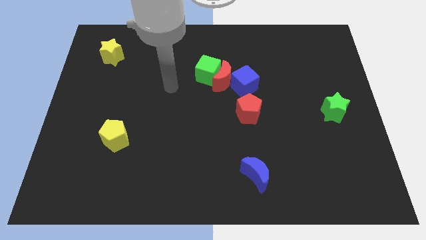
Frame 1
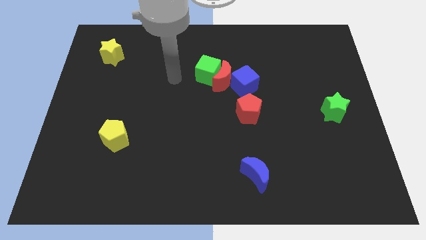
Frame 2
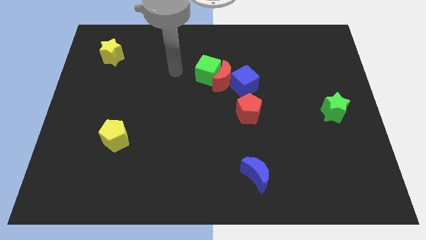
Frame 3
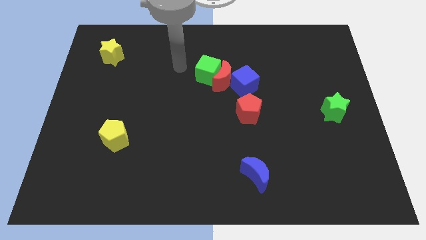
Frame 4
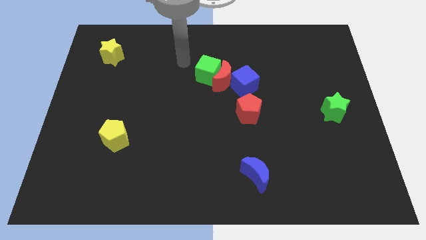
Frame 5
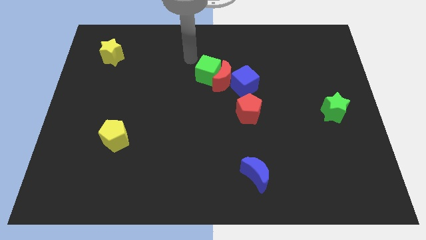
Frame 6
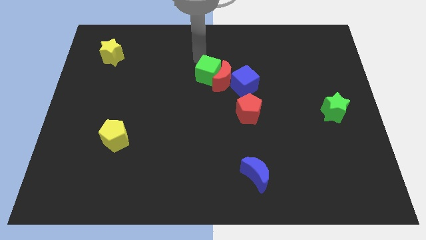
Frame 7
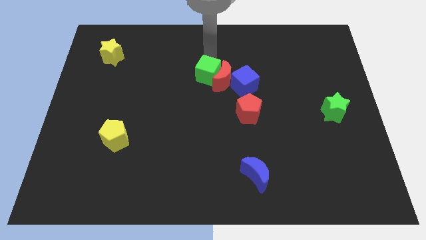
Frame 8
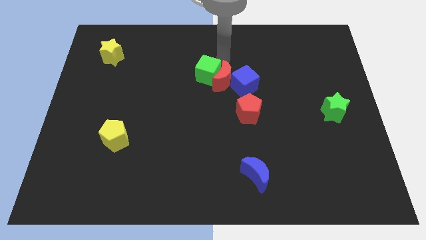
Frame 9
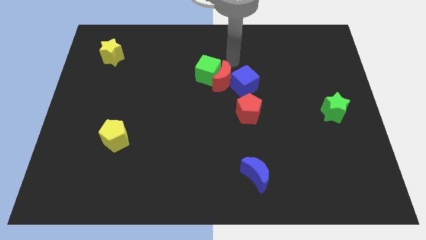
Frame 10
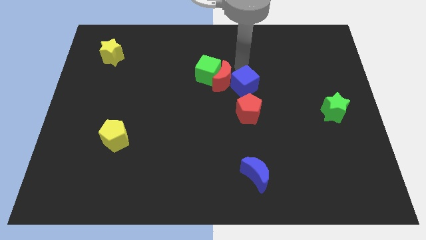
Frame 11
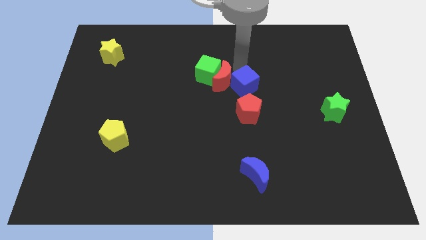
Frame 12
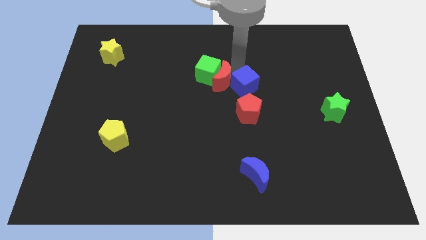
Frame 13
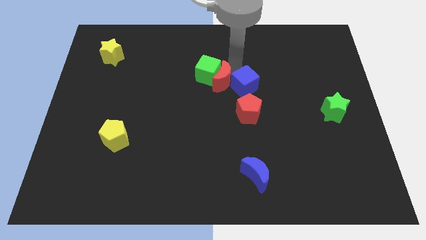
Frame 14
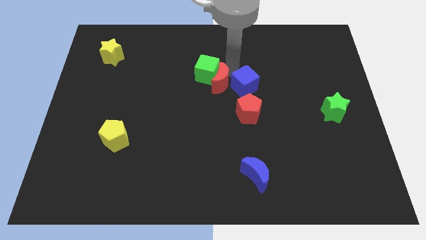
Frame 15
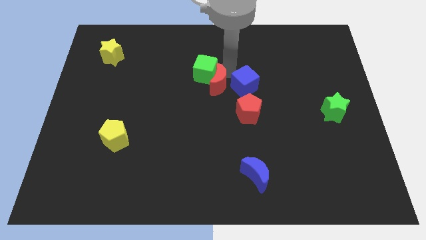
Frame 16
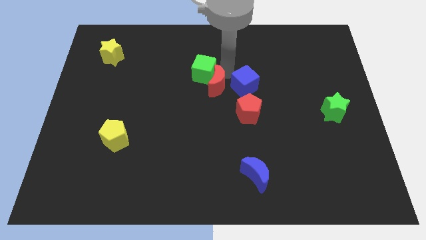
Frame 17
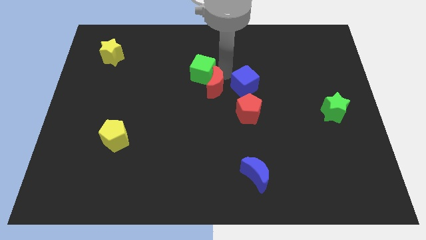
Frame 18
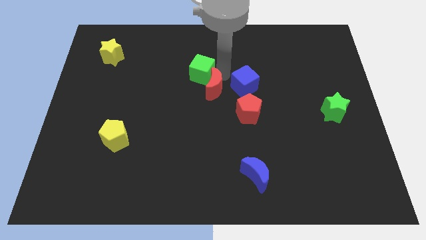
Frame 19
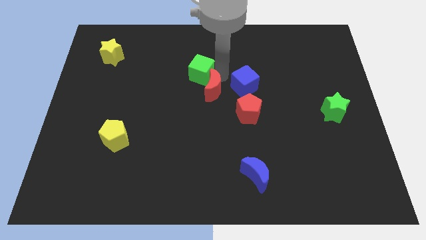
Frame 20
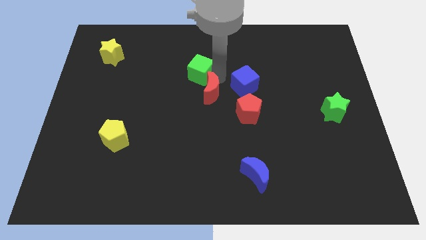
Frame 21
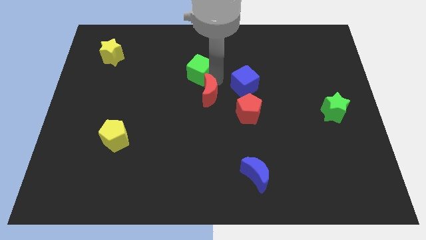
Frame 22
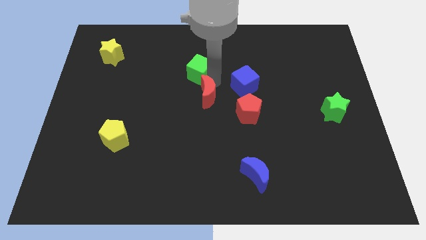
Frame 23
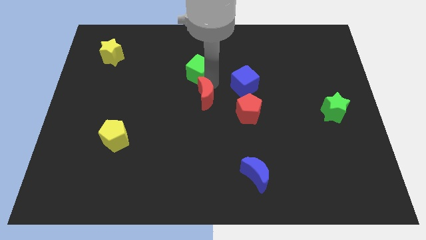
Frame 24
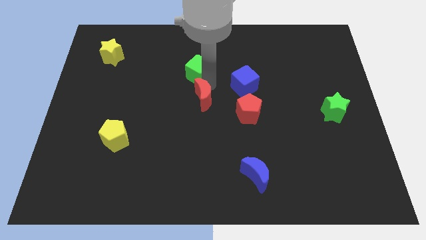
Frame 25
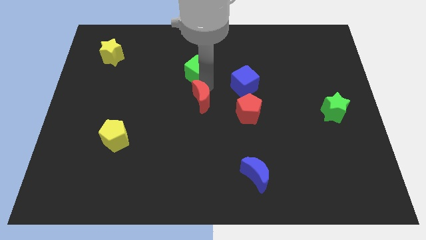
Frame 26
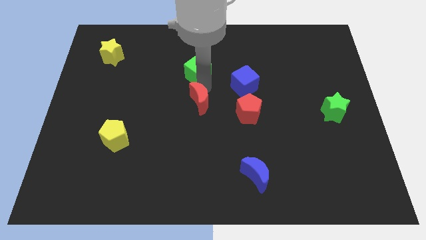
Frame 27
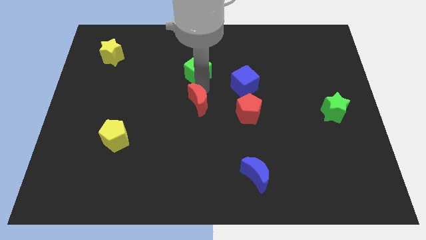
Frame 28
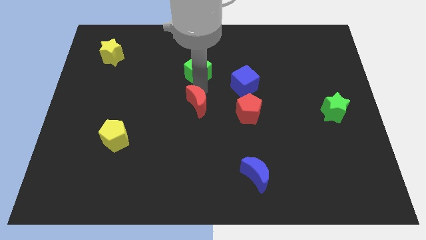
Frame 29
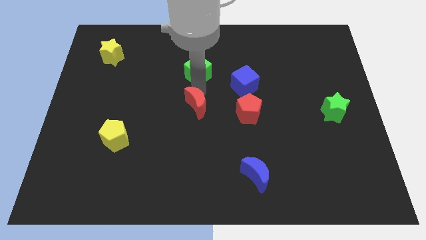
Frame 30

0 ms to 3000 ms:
pull the red moon apart from the green cube and blue cube

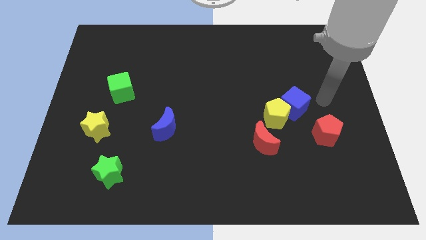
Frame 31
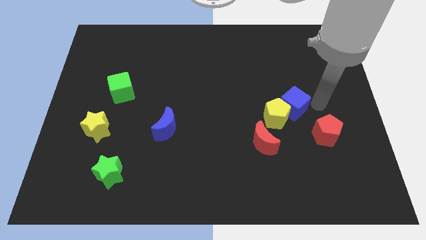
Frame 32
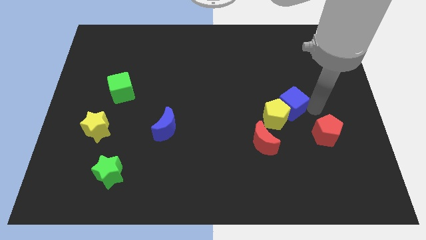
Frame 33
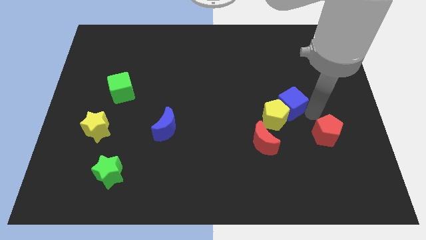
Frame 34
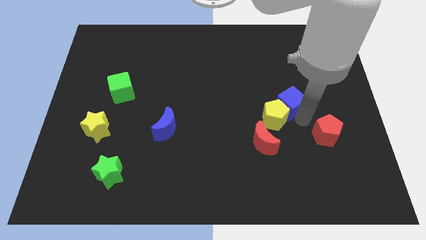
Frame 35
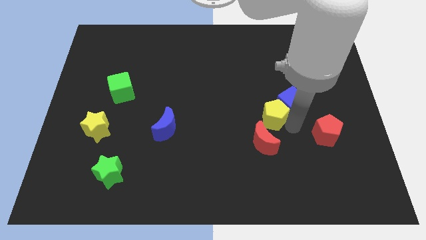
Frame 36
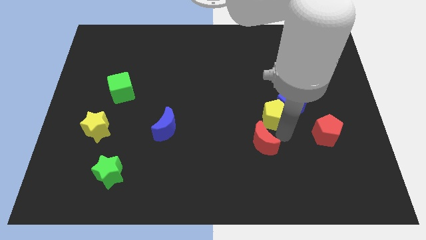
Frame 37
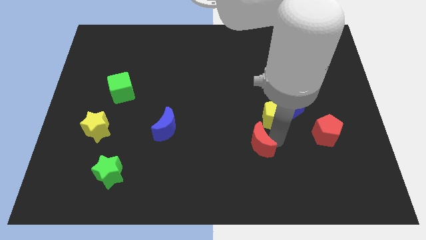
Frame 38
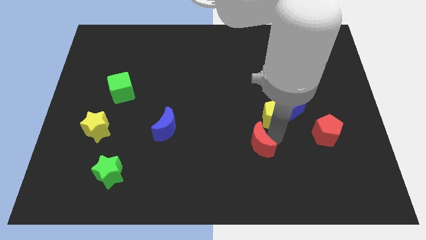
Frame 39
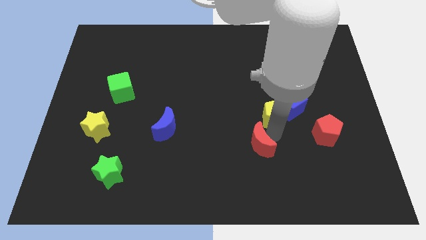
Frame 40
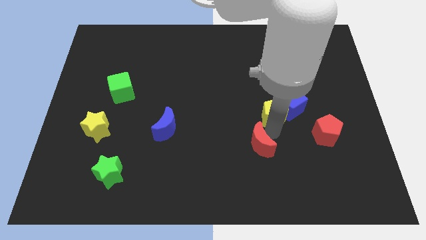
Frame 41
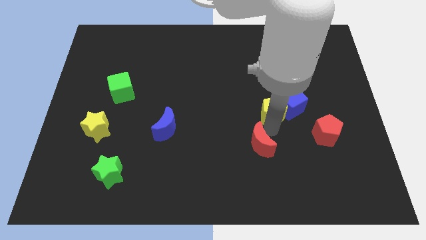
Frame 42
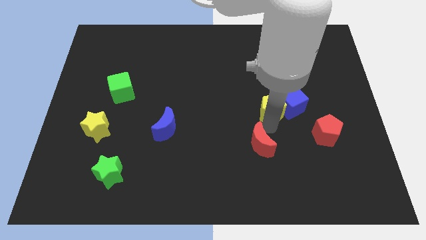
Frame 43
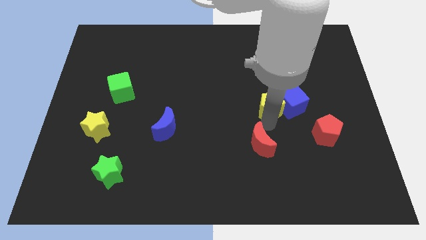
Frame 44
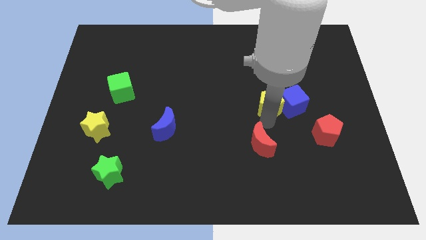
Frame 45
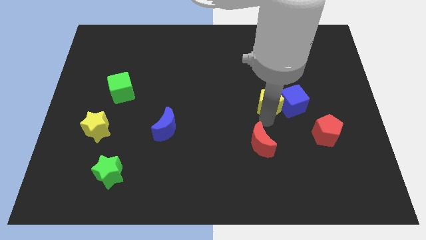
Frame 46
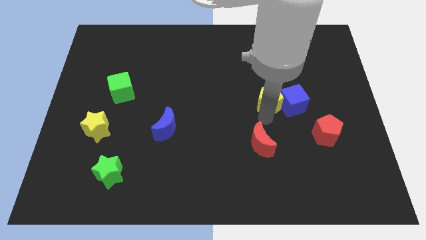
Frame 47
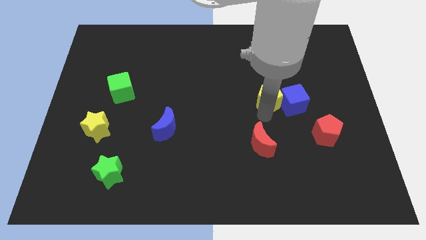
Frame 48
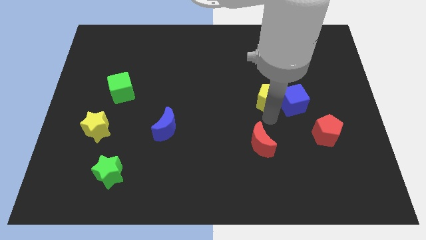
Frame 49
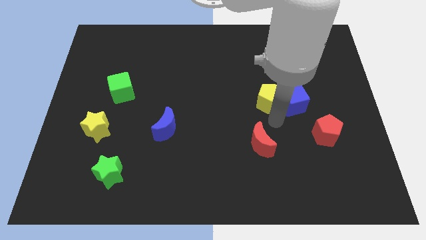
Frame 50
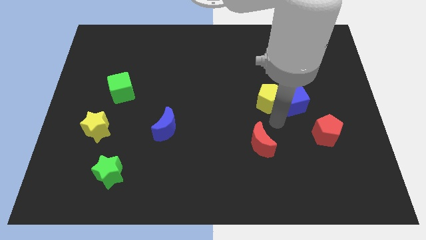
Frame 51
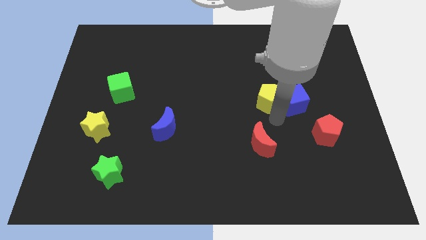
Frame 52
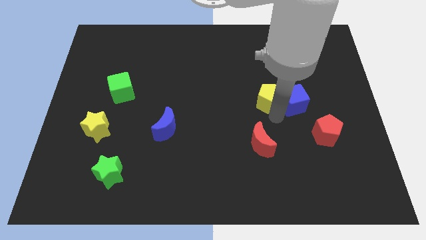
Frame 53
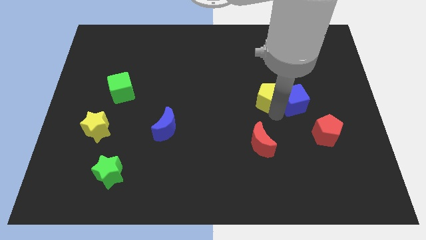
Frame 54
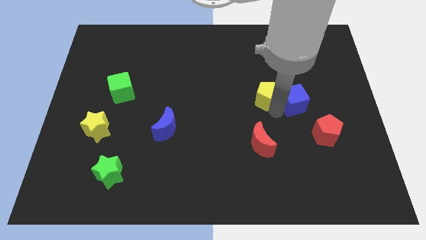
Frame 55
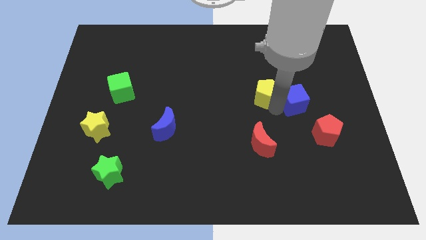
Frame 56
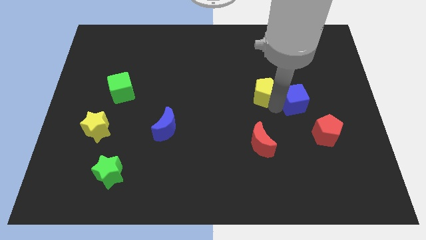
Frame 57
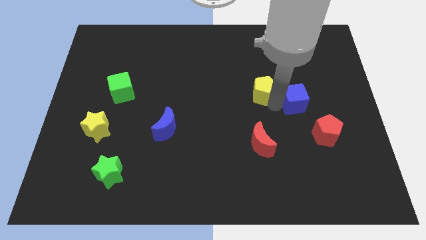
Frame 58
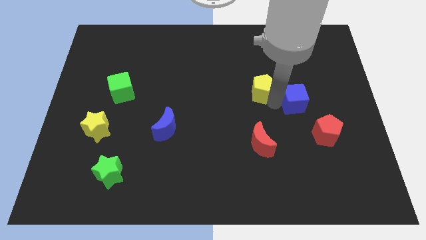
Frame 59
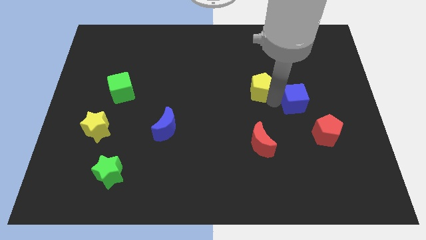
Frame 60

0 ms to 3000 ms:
pull the yellow pentagon apart from the blue cube and red moon

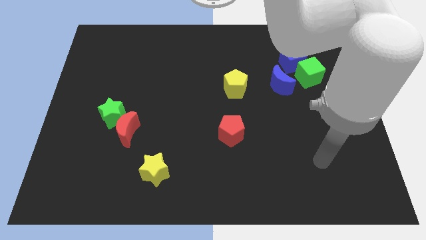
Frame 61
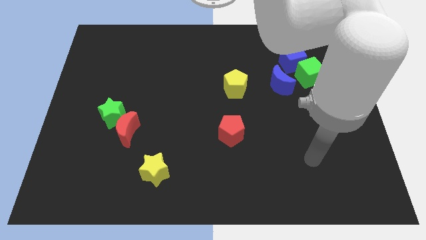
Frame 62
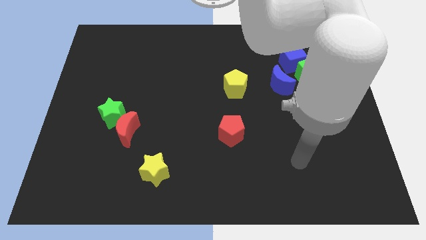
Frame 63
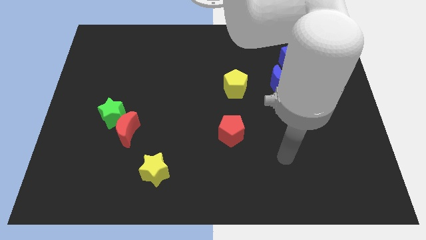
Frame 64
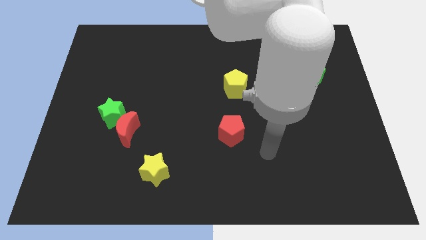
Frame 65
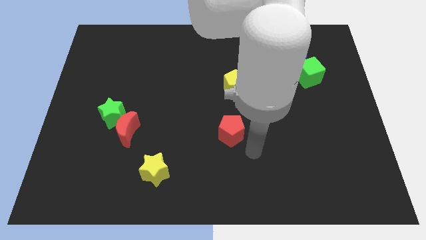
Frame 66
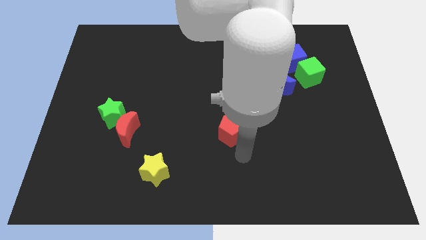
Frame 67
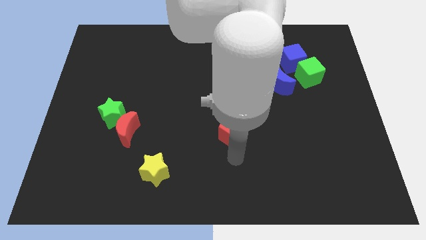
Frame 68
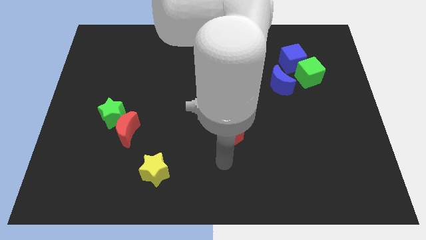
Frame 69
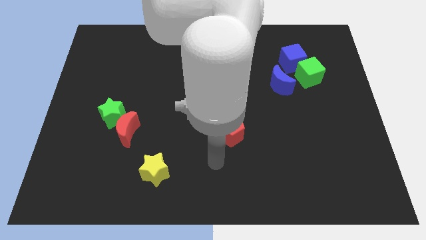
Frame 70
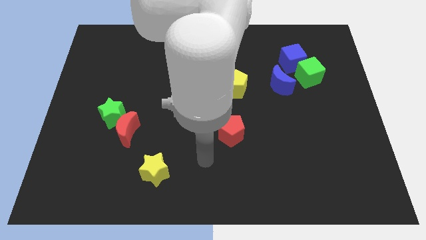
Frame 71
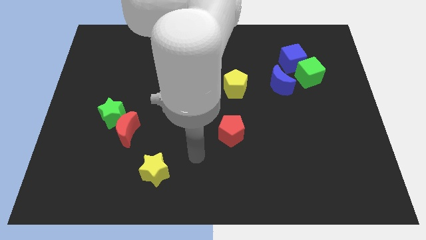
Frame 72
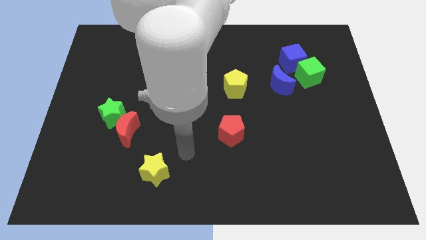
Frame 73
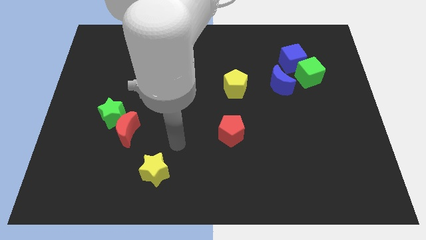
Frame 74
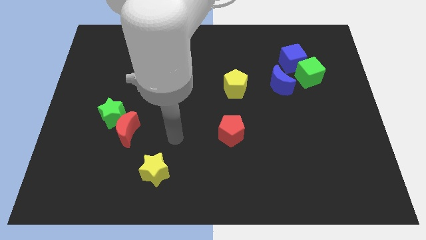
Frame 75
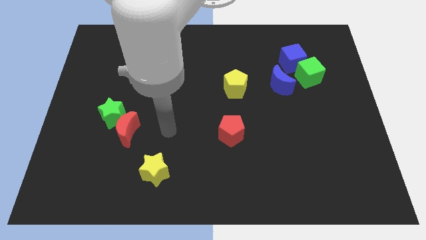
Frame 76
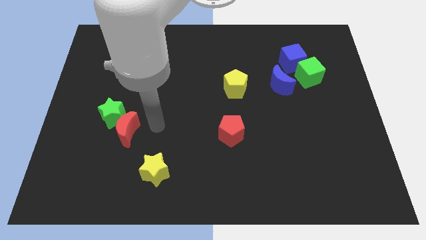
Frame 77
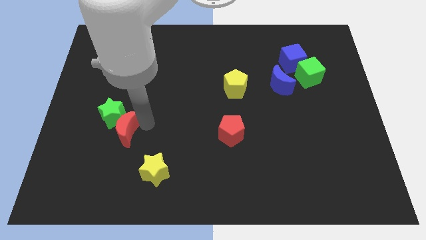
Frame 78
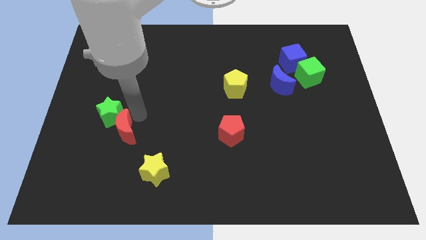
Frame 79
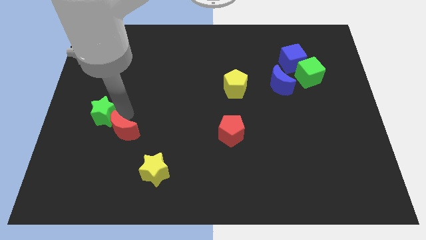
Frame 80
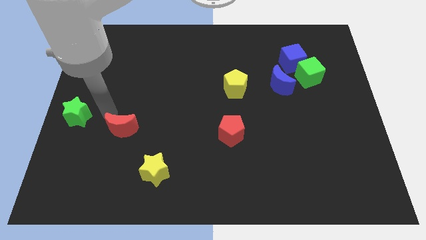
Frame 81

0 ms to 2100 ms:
pull the red moon apart from the green star

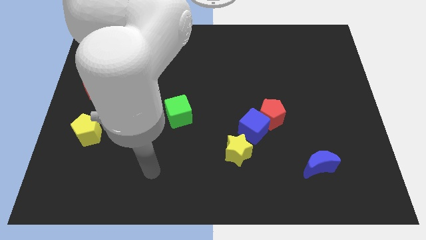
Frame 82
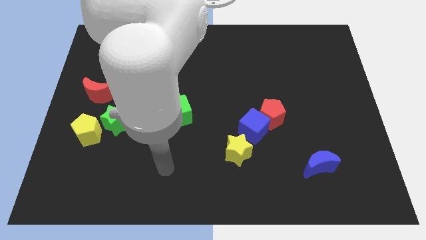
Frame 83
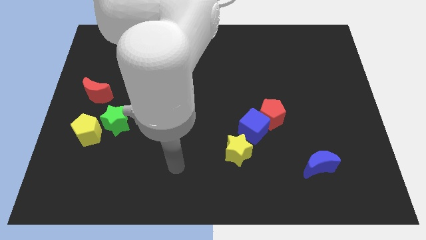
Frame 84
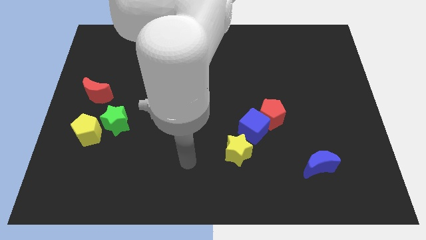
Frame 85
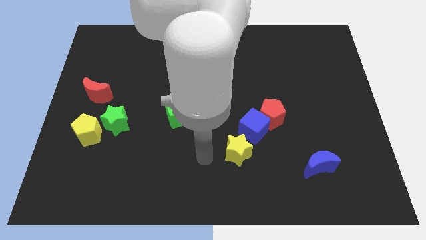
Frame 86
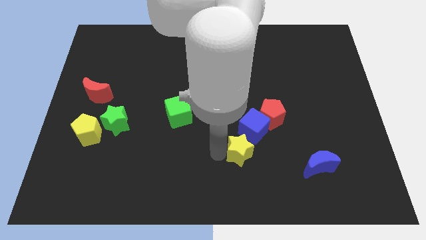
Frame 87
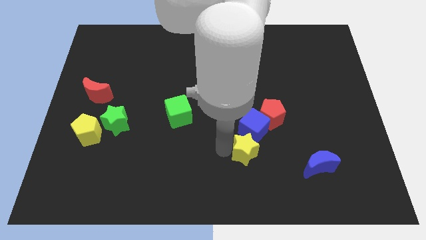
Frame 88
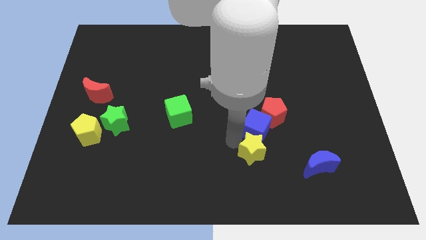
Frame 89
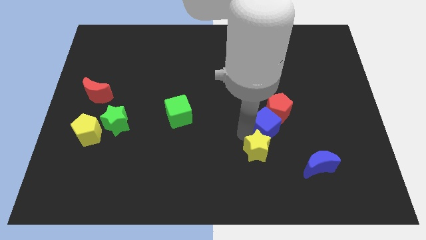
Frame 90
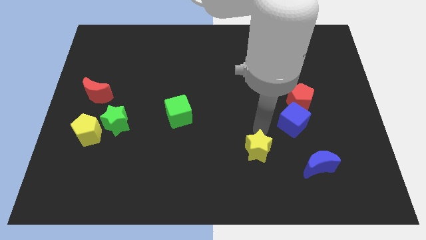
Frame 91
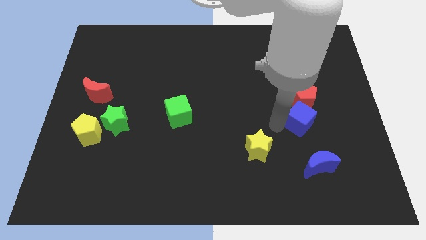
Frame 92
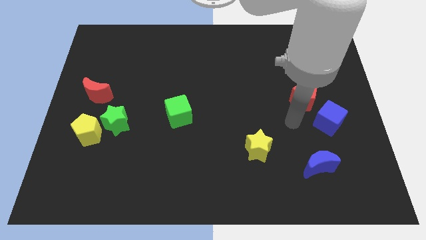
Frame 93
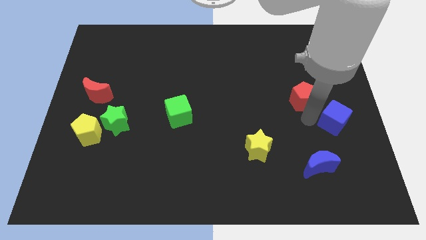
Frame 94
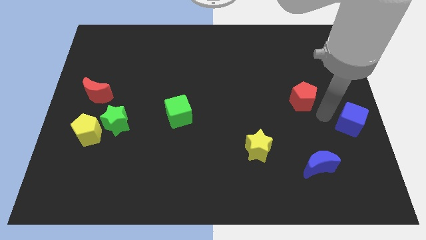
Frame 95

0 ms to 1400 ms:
pull the red pentagon apart from the blue cube
